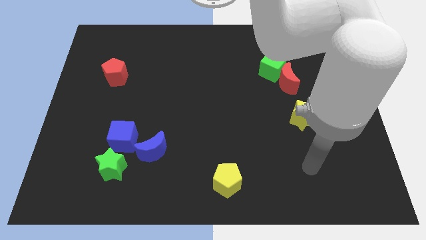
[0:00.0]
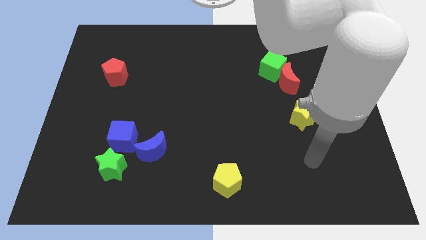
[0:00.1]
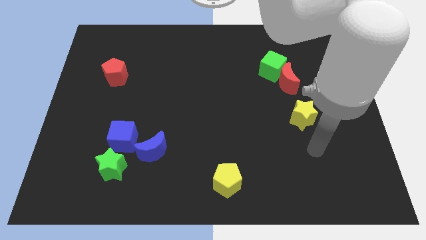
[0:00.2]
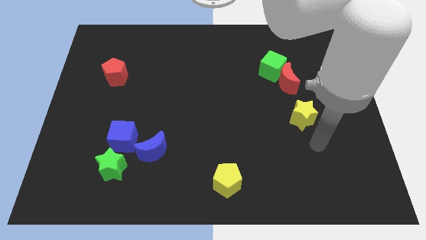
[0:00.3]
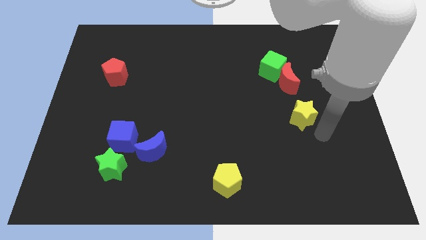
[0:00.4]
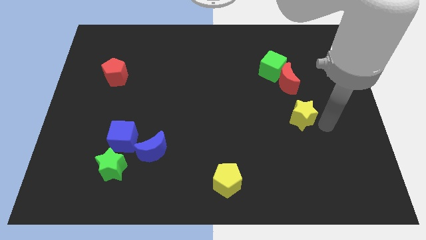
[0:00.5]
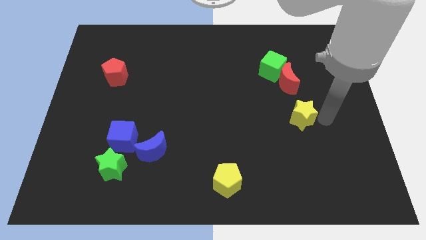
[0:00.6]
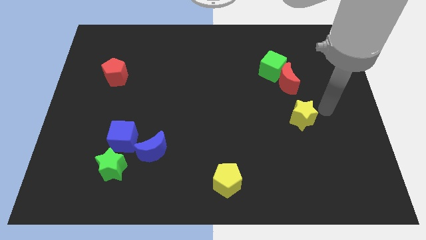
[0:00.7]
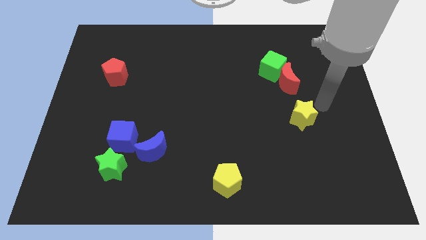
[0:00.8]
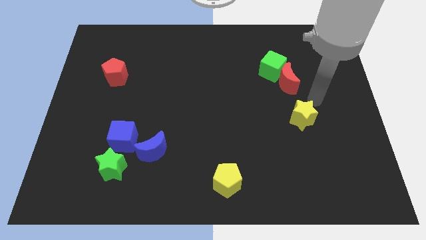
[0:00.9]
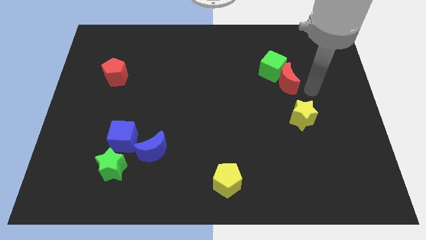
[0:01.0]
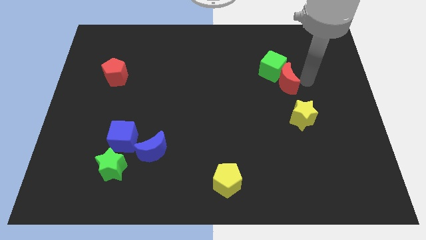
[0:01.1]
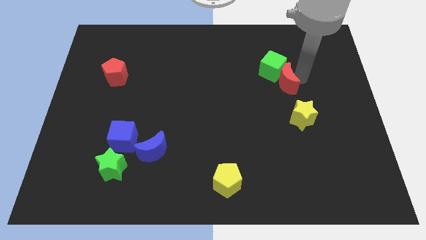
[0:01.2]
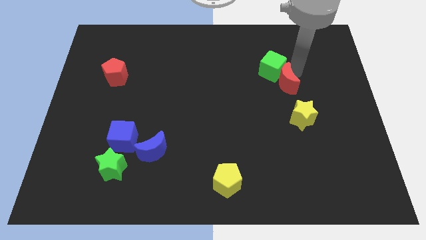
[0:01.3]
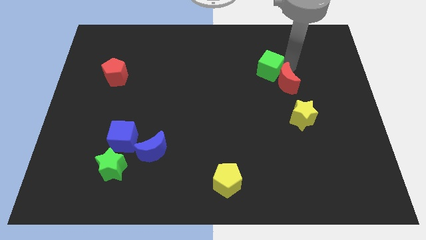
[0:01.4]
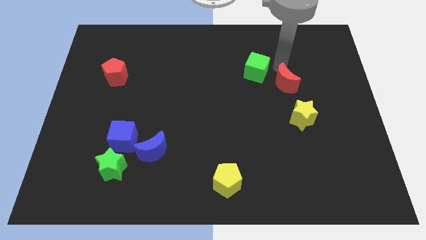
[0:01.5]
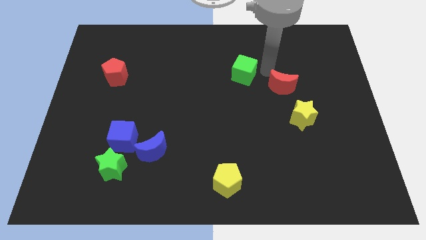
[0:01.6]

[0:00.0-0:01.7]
move the red moon away from the green cube

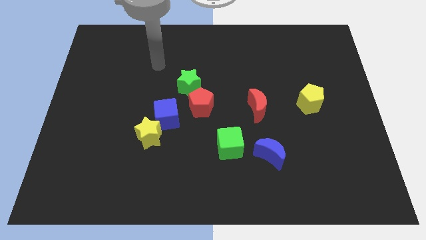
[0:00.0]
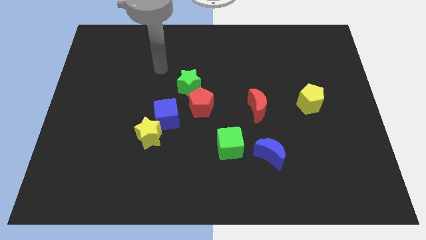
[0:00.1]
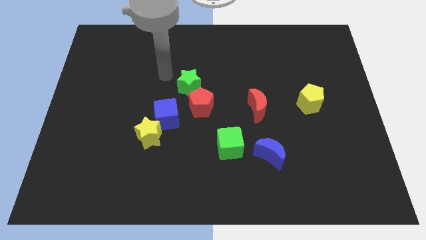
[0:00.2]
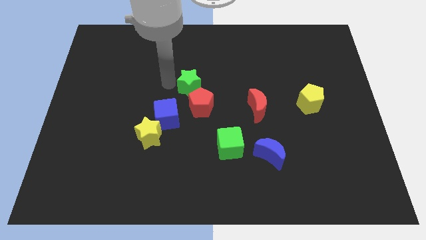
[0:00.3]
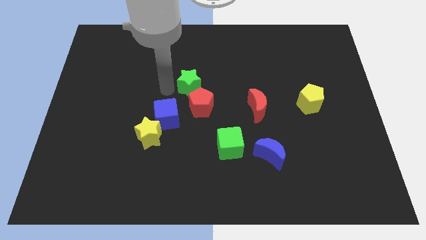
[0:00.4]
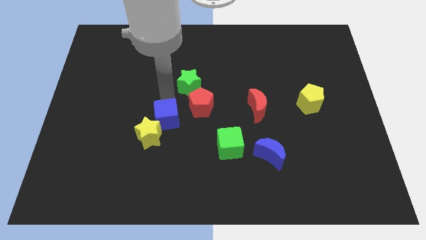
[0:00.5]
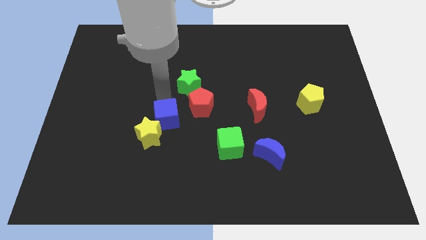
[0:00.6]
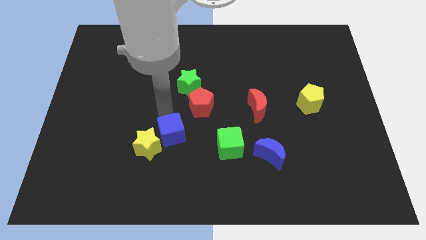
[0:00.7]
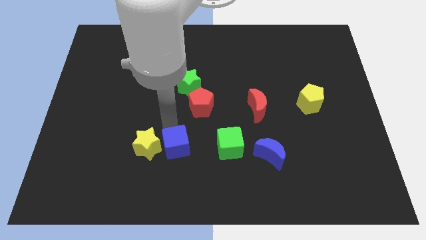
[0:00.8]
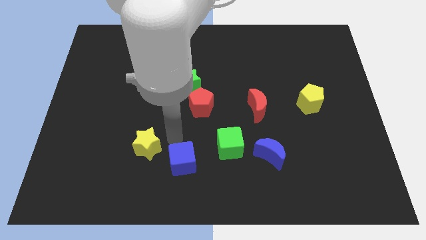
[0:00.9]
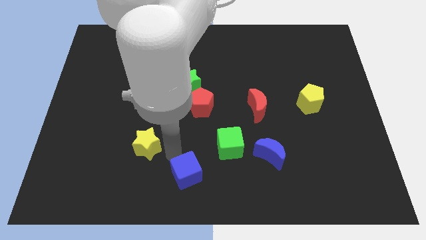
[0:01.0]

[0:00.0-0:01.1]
separate the yellow star from the blue cube

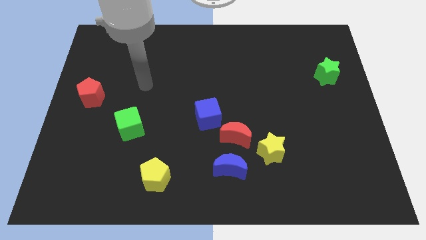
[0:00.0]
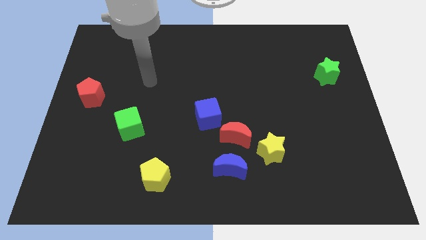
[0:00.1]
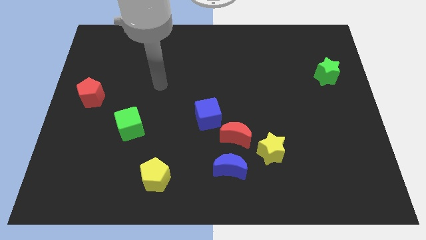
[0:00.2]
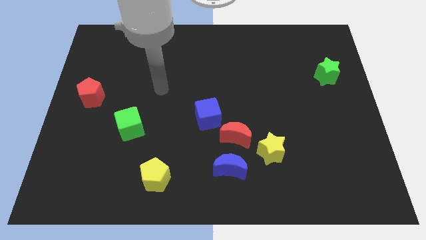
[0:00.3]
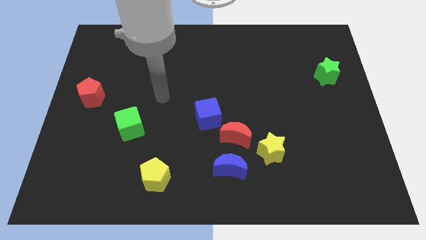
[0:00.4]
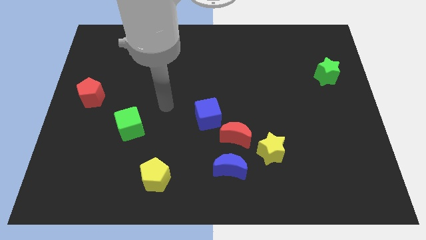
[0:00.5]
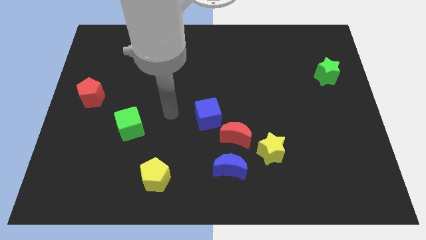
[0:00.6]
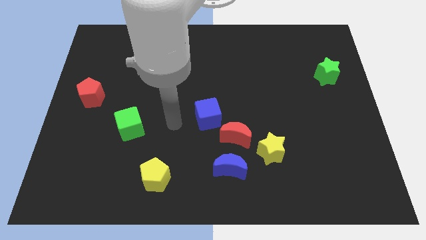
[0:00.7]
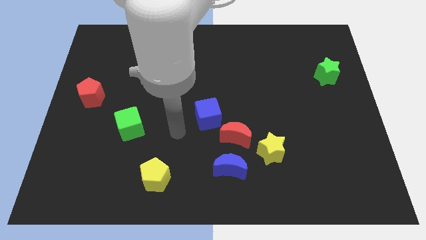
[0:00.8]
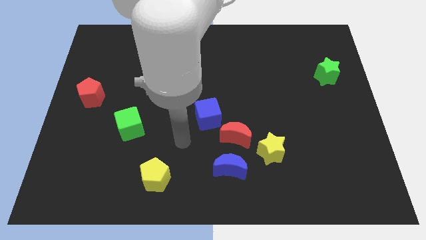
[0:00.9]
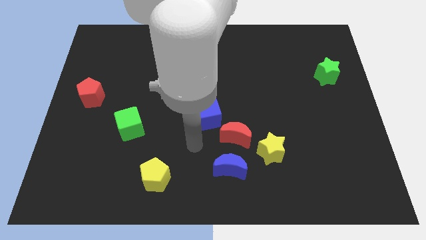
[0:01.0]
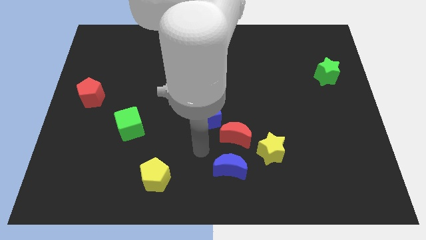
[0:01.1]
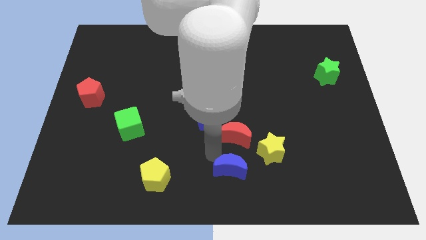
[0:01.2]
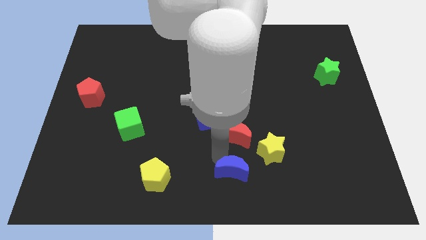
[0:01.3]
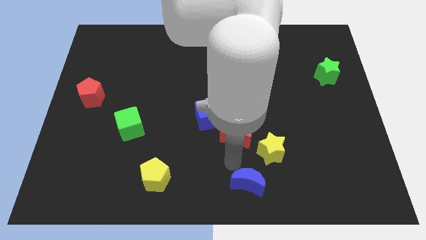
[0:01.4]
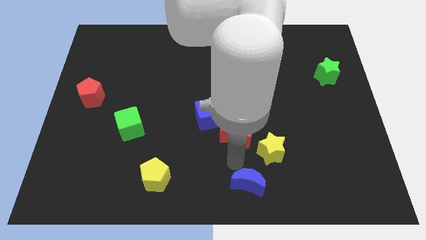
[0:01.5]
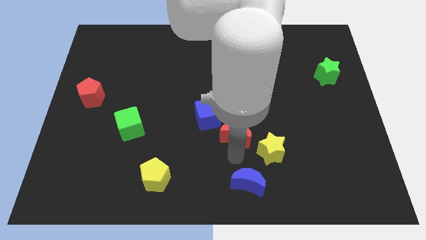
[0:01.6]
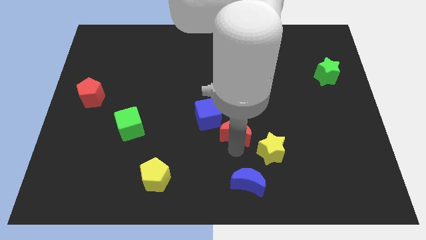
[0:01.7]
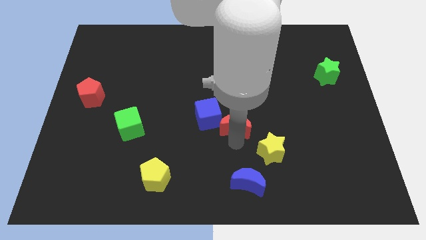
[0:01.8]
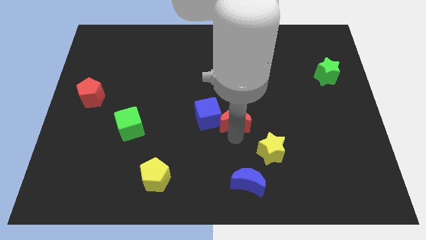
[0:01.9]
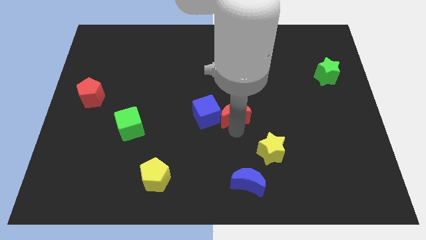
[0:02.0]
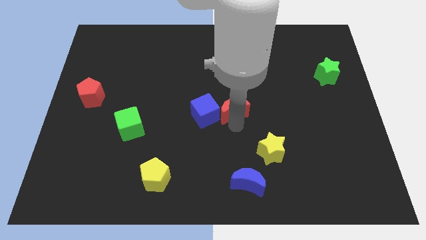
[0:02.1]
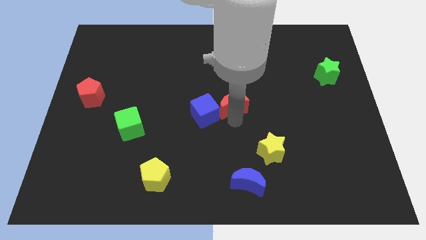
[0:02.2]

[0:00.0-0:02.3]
pull the red moon apart from the group of blocks

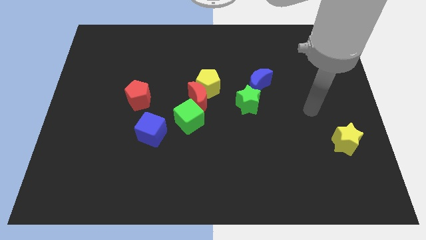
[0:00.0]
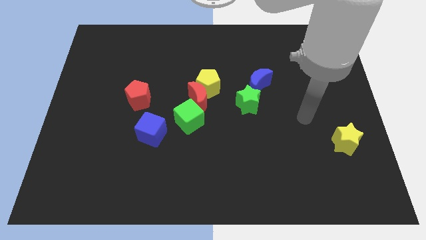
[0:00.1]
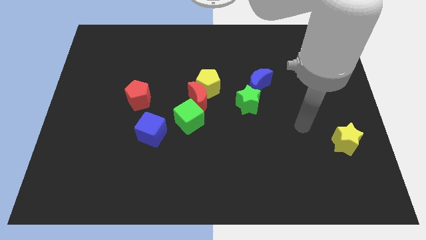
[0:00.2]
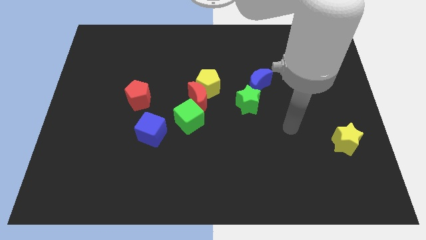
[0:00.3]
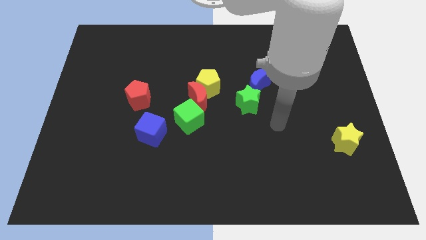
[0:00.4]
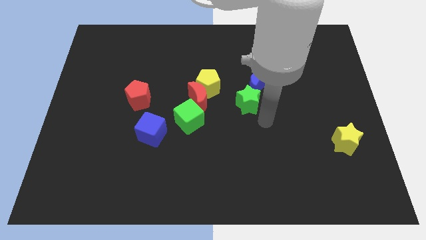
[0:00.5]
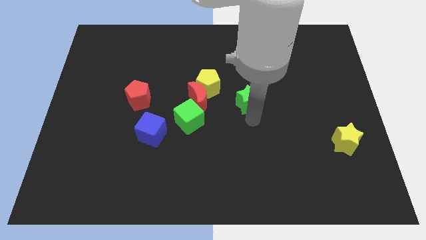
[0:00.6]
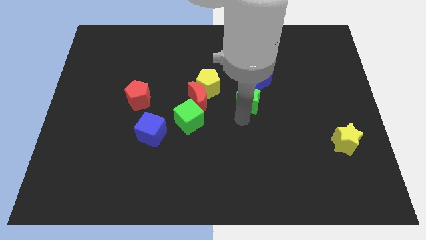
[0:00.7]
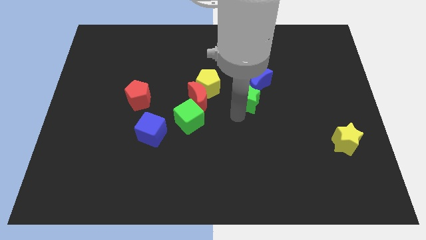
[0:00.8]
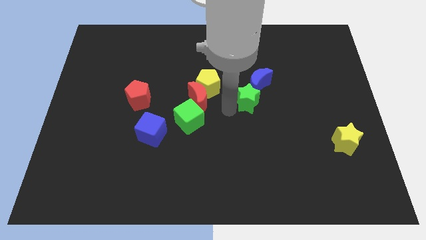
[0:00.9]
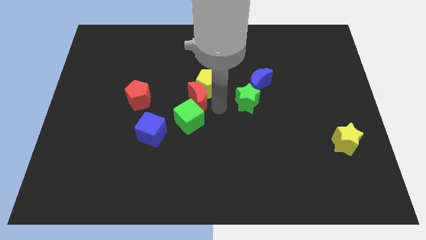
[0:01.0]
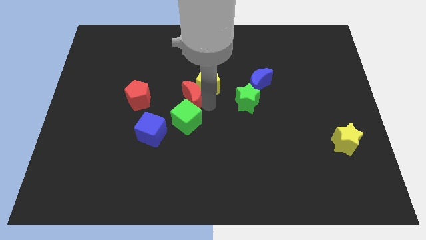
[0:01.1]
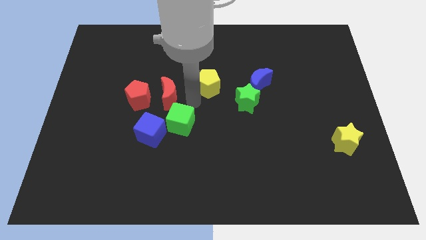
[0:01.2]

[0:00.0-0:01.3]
separate the yellow pentagon from the red moon

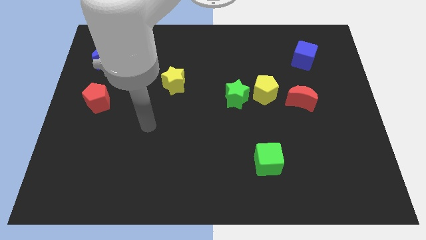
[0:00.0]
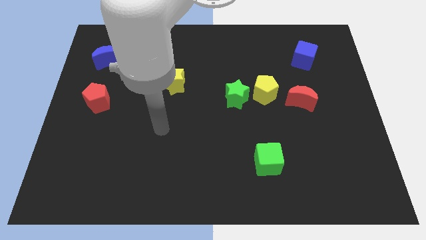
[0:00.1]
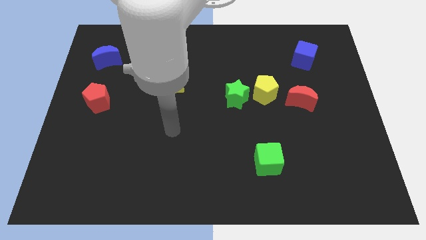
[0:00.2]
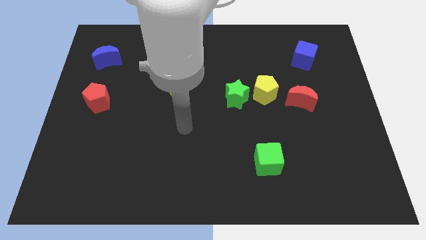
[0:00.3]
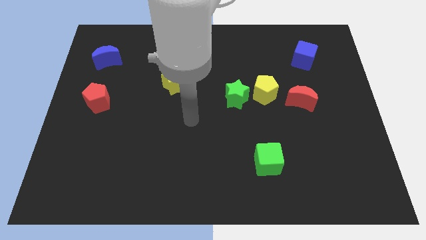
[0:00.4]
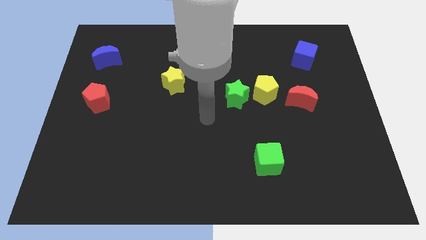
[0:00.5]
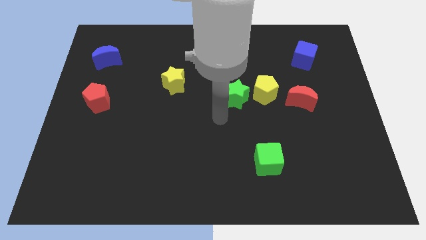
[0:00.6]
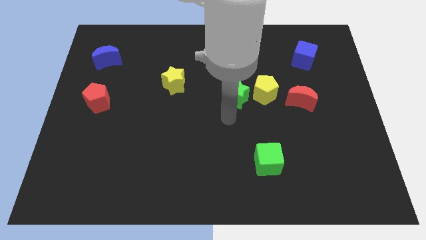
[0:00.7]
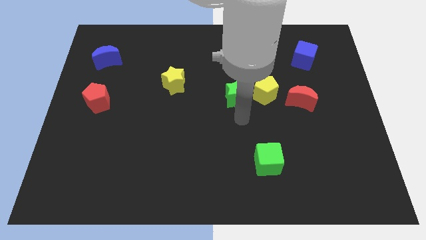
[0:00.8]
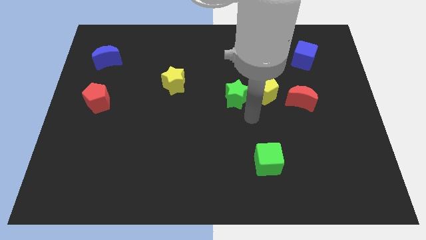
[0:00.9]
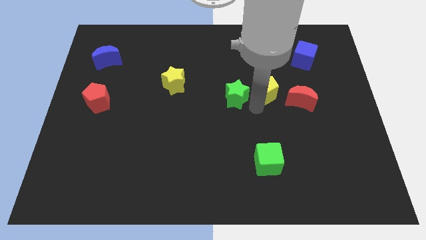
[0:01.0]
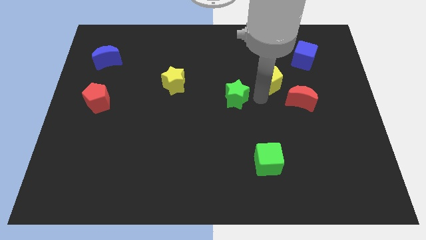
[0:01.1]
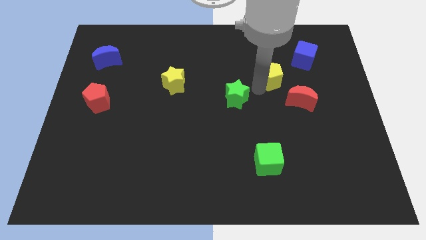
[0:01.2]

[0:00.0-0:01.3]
pull the green star apart from the yellow pentagon

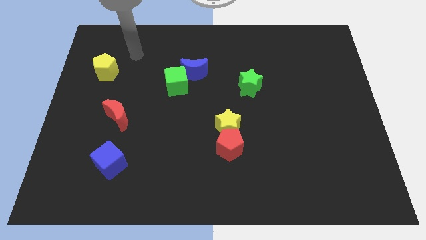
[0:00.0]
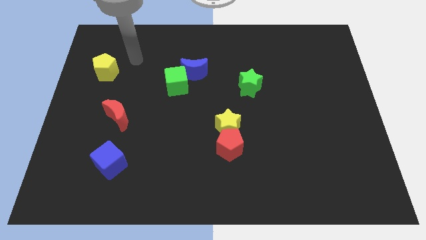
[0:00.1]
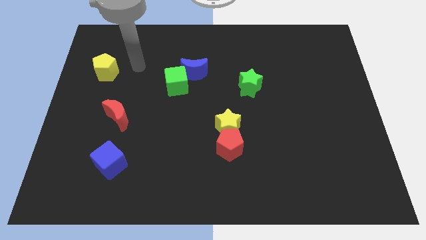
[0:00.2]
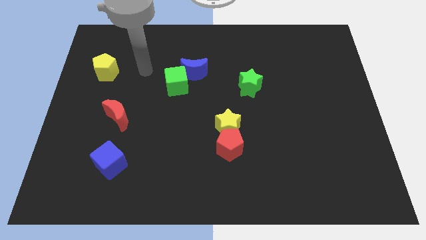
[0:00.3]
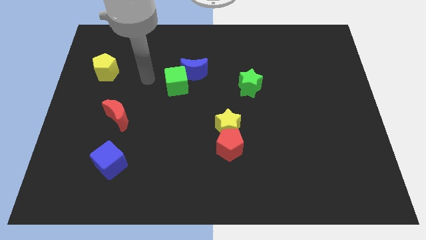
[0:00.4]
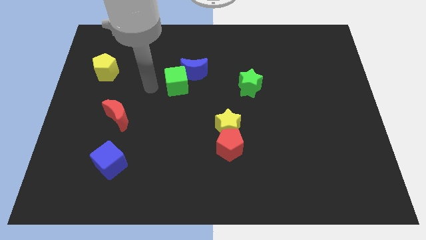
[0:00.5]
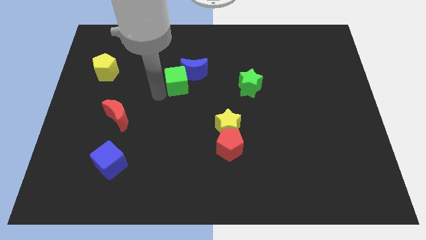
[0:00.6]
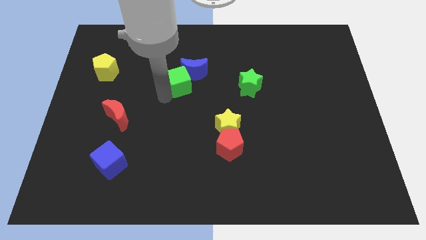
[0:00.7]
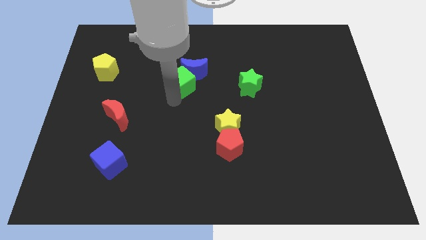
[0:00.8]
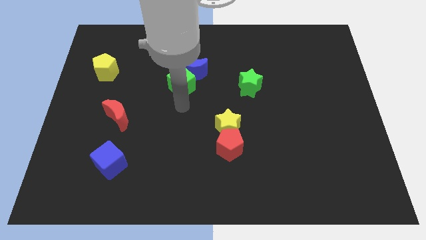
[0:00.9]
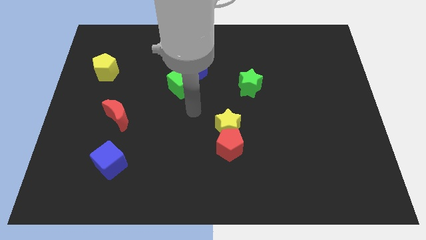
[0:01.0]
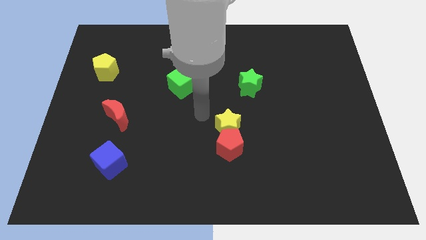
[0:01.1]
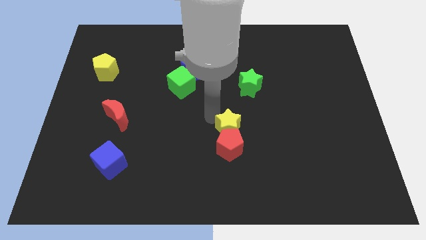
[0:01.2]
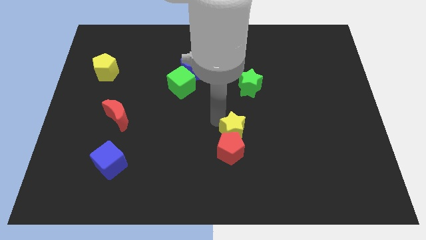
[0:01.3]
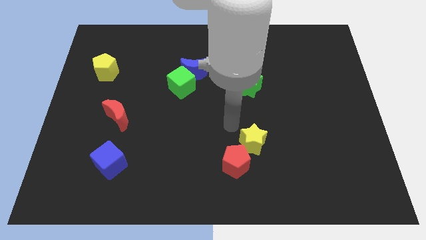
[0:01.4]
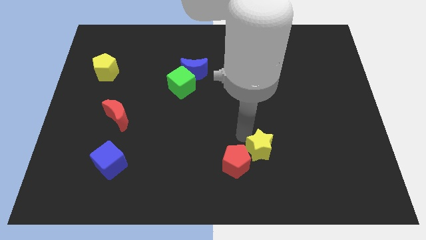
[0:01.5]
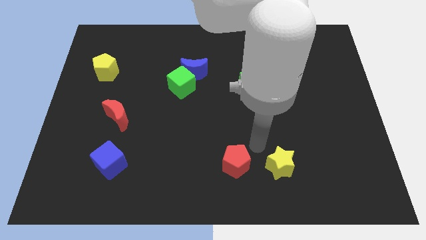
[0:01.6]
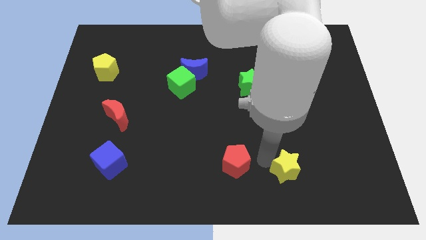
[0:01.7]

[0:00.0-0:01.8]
move the red pentagon away from the yellow star
